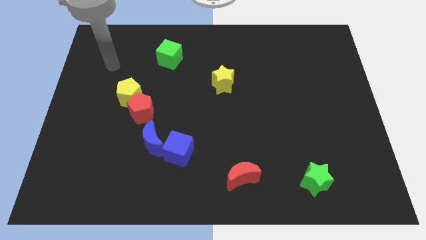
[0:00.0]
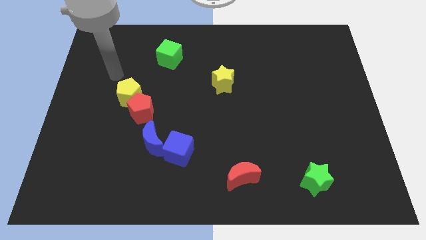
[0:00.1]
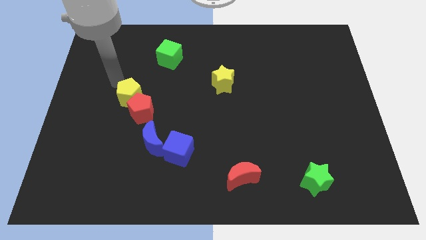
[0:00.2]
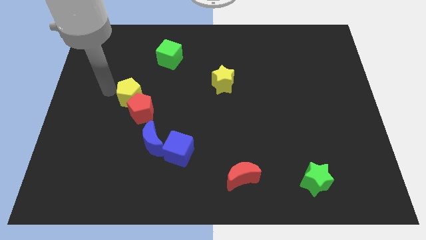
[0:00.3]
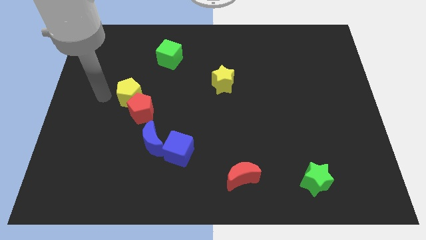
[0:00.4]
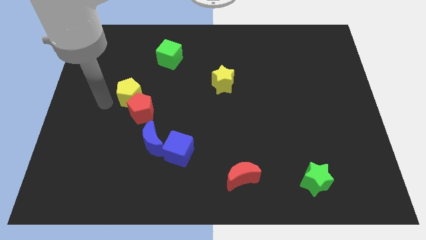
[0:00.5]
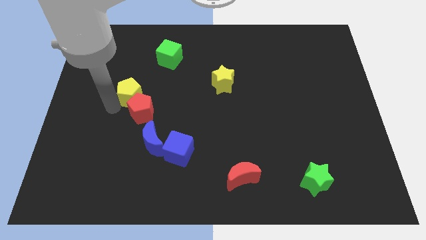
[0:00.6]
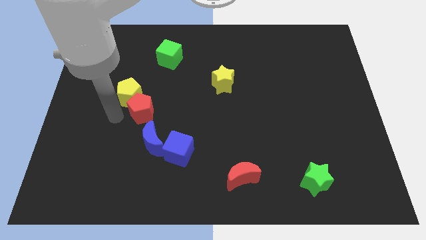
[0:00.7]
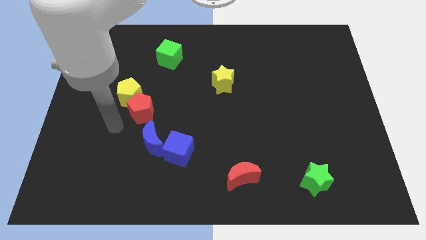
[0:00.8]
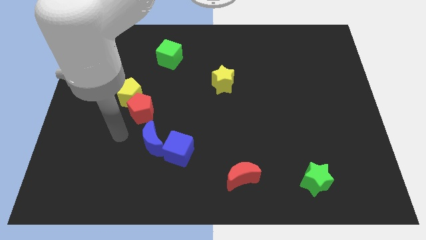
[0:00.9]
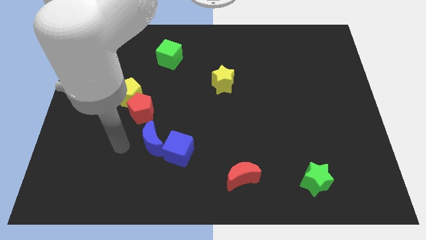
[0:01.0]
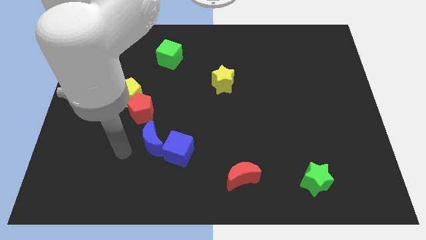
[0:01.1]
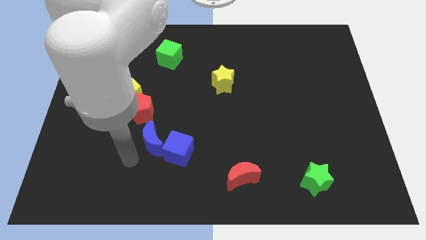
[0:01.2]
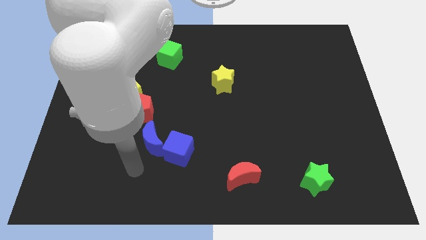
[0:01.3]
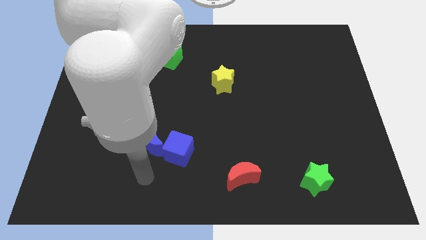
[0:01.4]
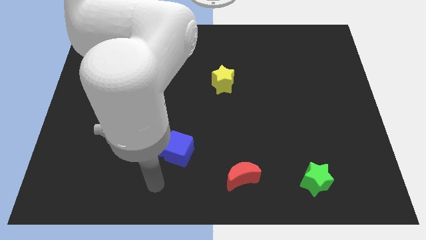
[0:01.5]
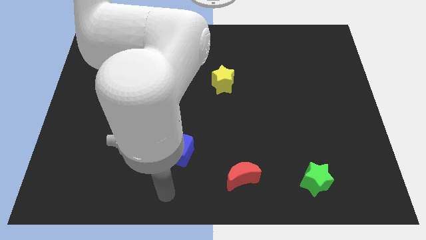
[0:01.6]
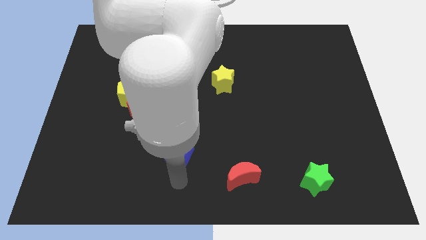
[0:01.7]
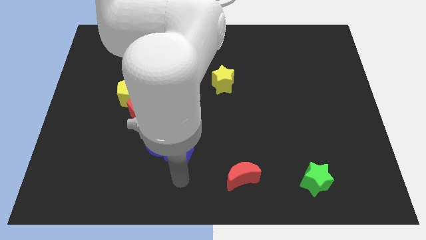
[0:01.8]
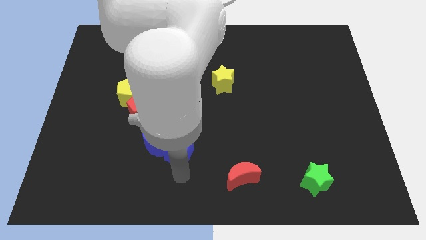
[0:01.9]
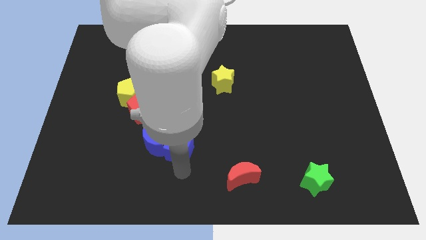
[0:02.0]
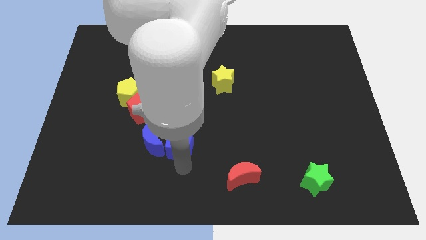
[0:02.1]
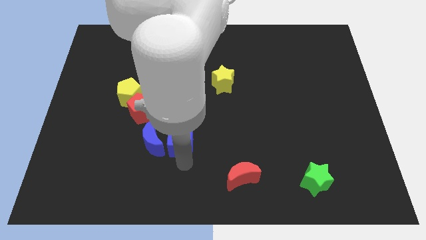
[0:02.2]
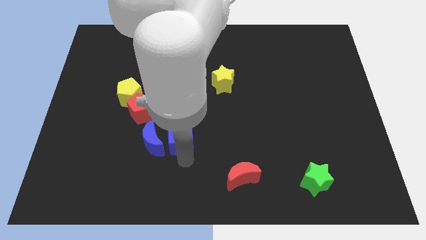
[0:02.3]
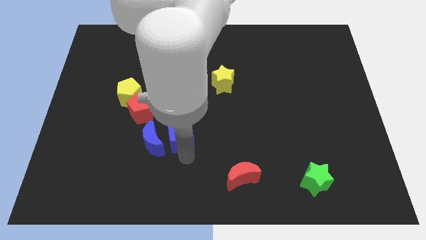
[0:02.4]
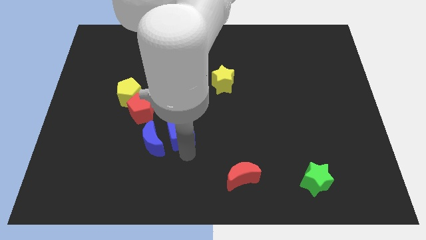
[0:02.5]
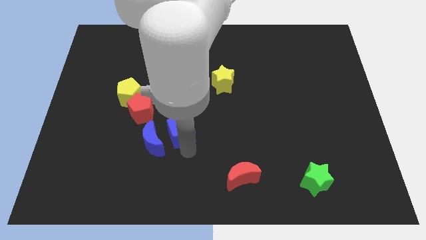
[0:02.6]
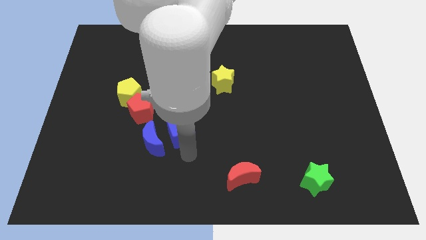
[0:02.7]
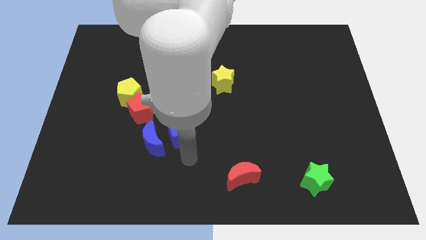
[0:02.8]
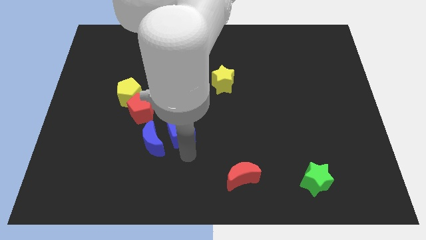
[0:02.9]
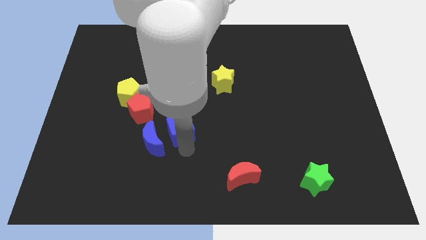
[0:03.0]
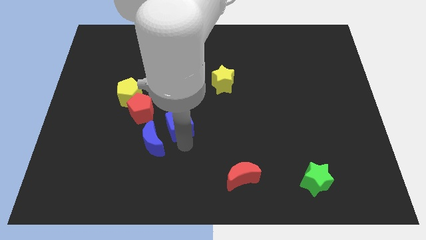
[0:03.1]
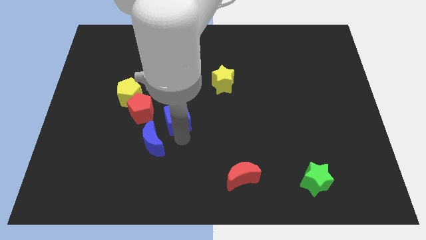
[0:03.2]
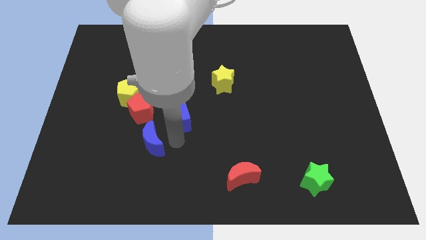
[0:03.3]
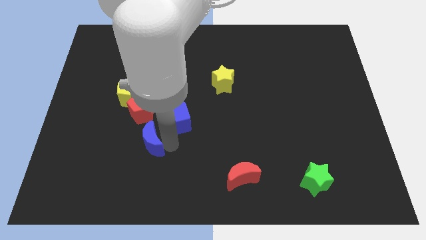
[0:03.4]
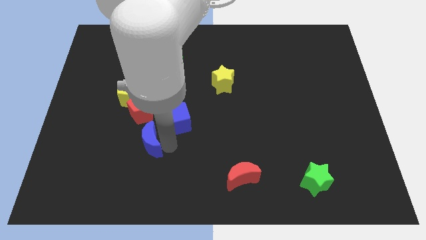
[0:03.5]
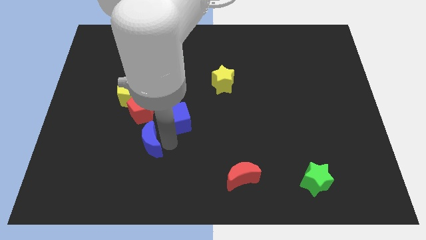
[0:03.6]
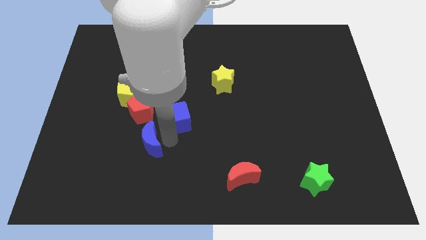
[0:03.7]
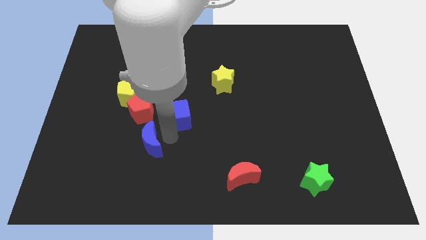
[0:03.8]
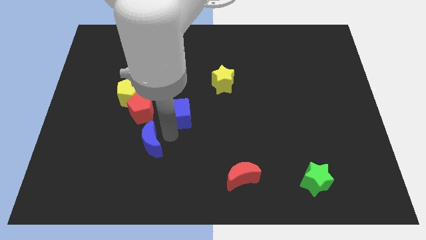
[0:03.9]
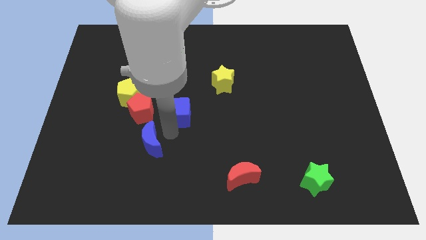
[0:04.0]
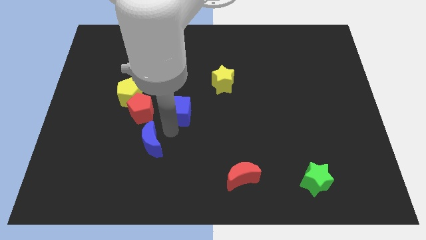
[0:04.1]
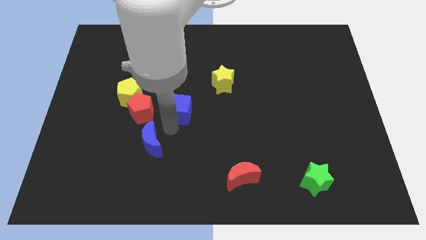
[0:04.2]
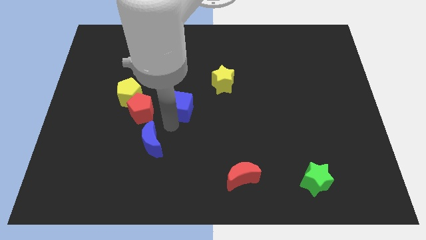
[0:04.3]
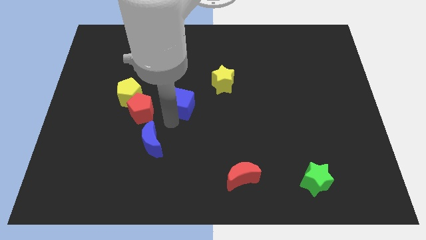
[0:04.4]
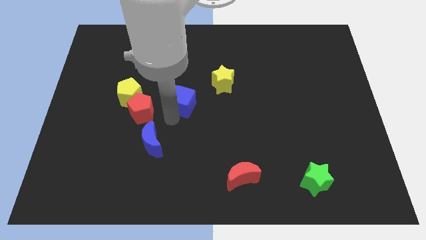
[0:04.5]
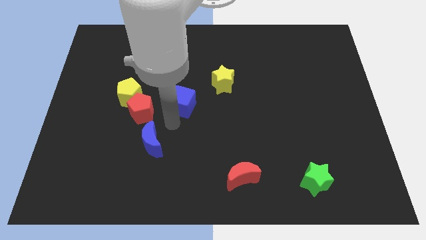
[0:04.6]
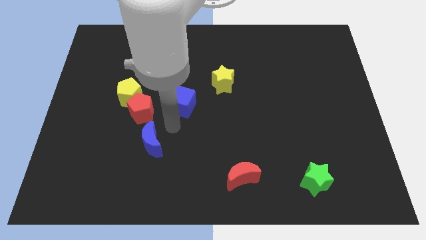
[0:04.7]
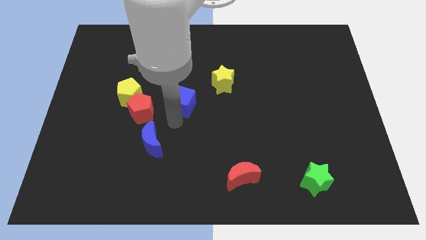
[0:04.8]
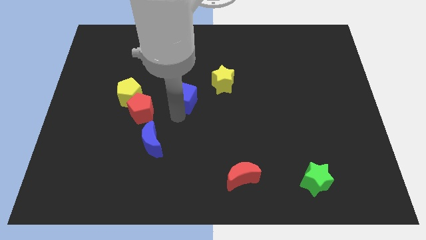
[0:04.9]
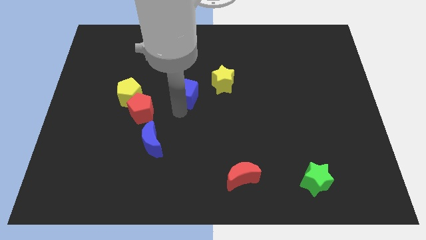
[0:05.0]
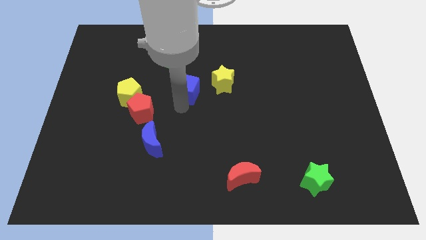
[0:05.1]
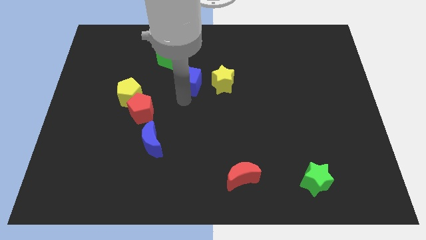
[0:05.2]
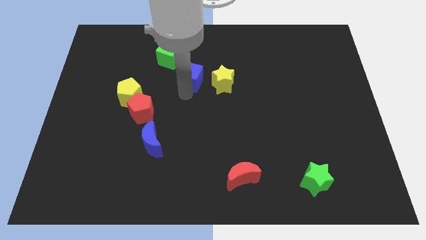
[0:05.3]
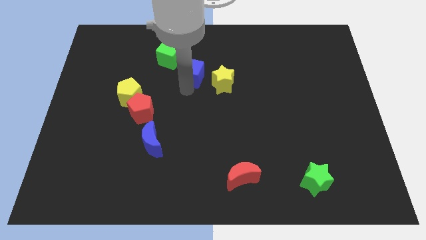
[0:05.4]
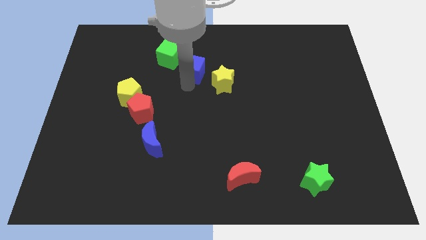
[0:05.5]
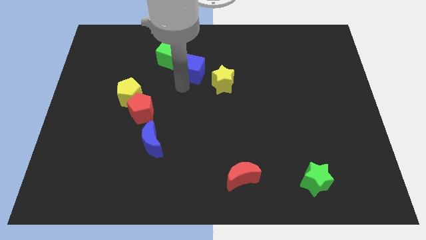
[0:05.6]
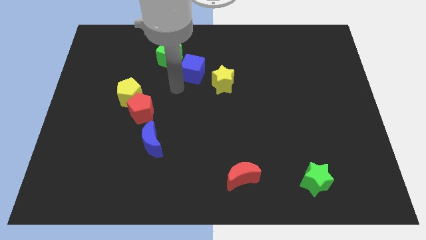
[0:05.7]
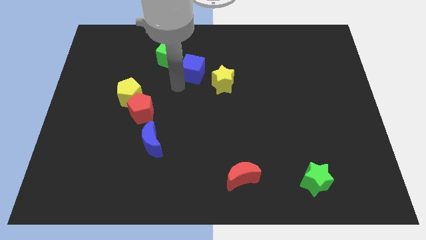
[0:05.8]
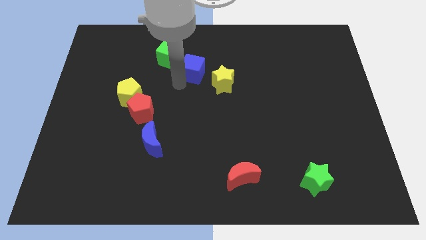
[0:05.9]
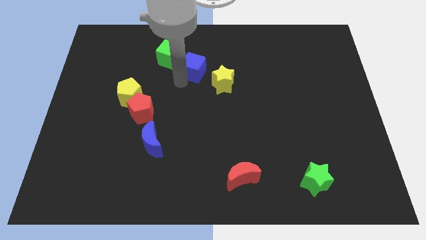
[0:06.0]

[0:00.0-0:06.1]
push the blue cube to the right of the green cube

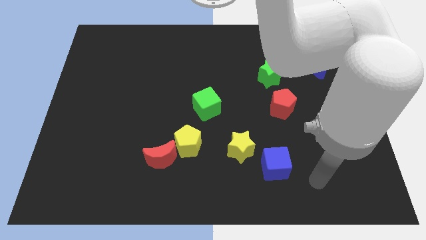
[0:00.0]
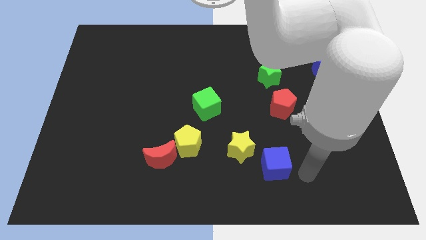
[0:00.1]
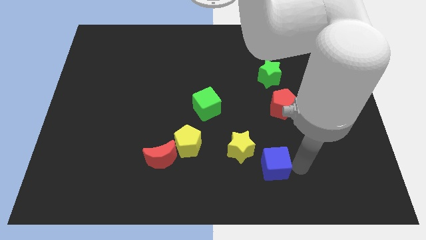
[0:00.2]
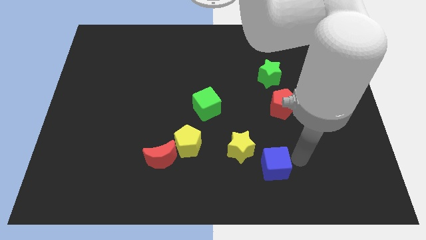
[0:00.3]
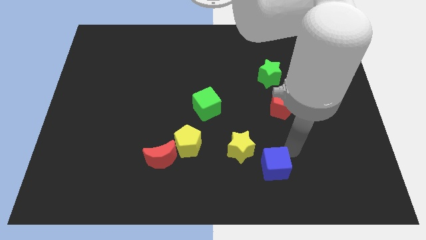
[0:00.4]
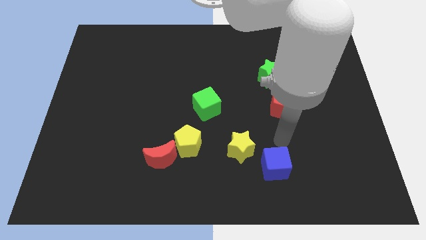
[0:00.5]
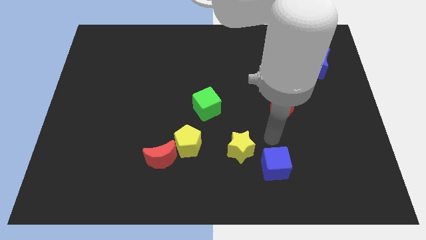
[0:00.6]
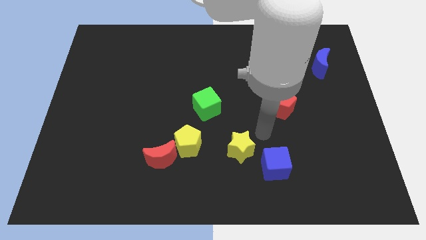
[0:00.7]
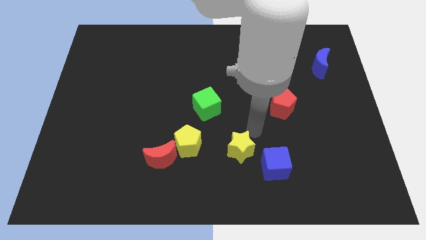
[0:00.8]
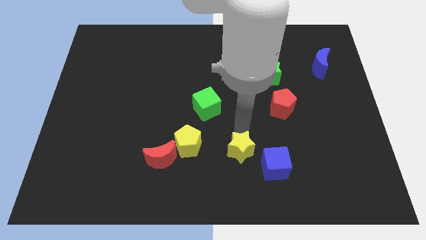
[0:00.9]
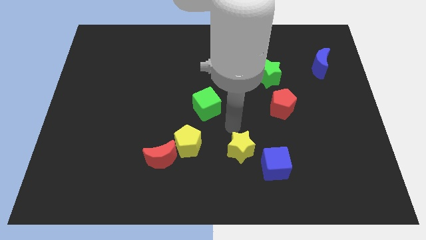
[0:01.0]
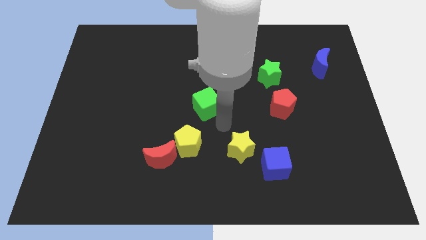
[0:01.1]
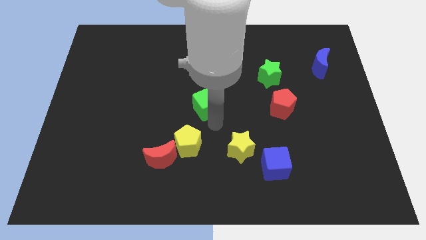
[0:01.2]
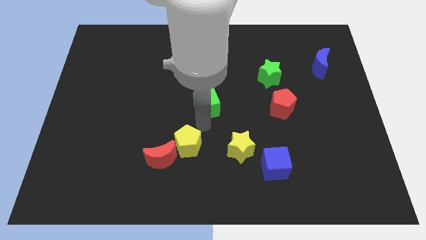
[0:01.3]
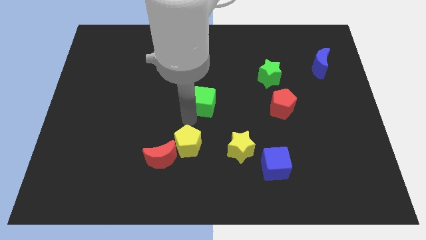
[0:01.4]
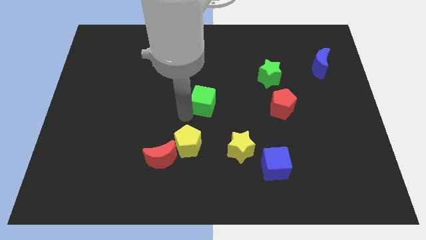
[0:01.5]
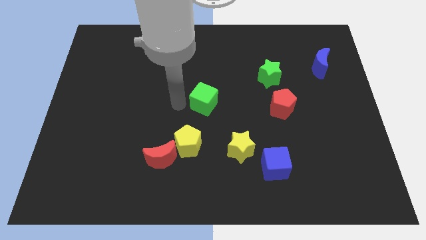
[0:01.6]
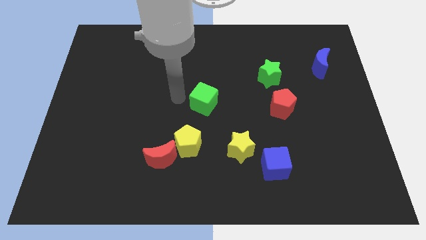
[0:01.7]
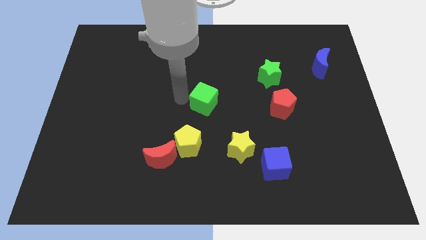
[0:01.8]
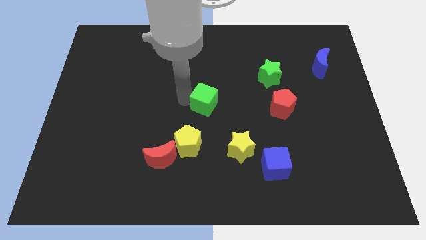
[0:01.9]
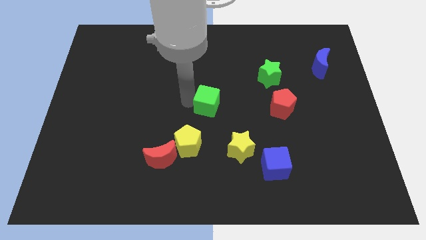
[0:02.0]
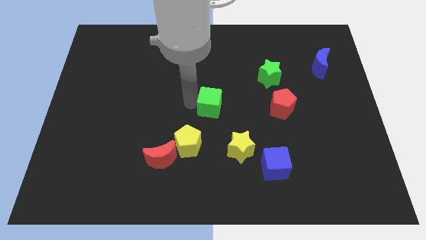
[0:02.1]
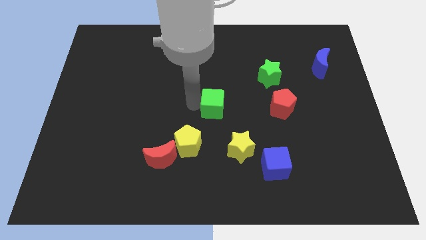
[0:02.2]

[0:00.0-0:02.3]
move the green cube left of the red pentagon
